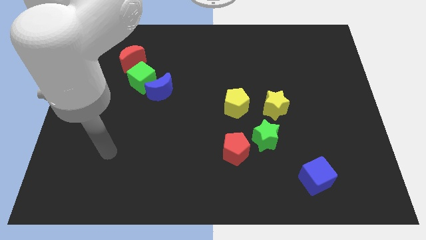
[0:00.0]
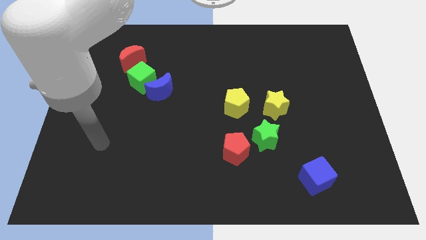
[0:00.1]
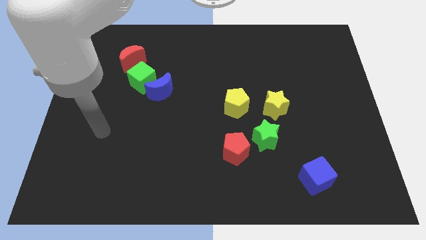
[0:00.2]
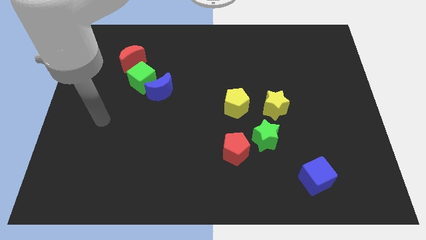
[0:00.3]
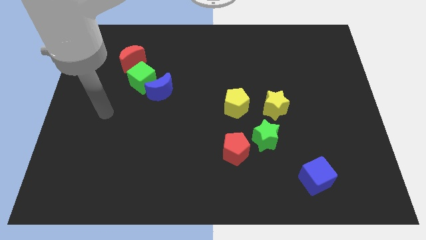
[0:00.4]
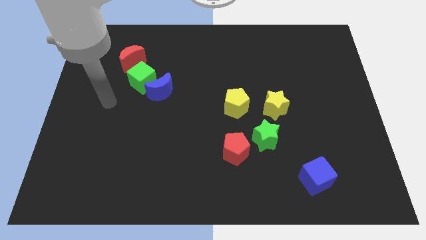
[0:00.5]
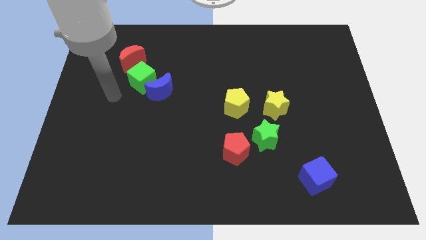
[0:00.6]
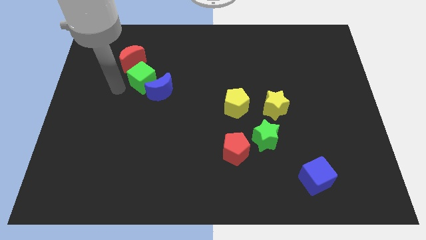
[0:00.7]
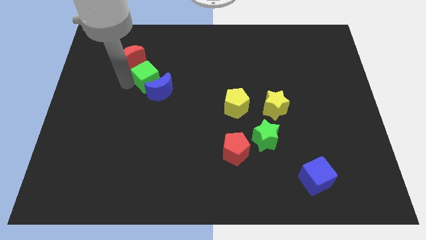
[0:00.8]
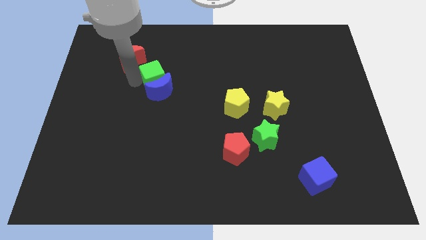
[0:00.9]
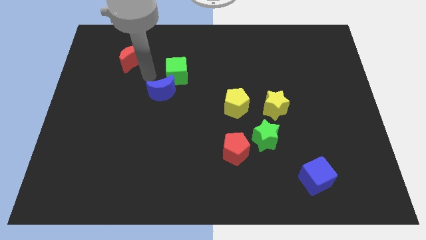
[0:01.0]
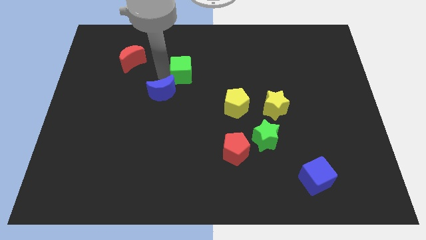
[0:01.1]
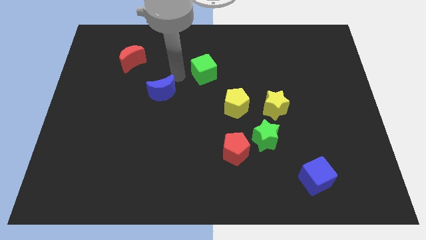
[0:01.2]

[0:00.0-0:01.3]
move the blue moon away from the green cube

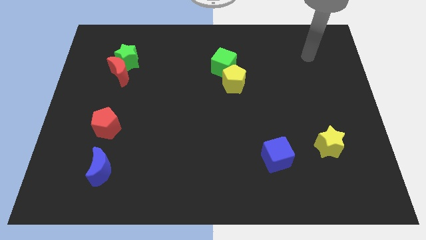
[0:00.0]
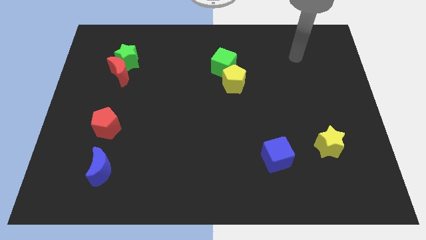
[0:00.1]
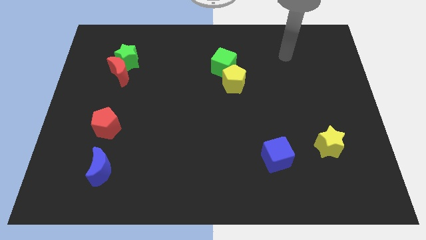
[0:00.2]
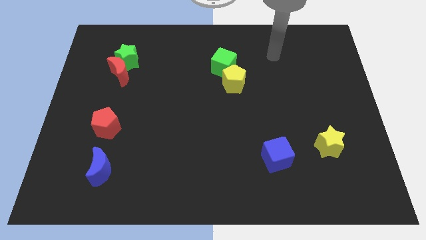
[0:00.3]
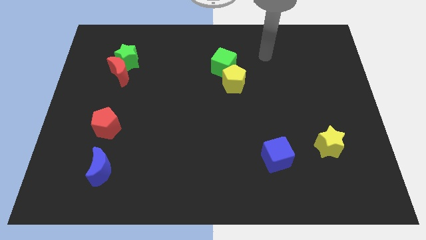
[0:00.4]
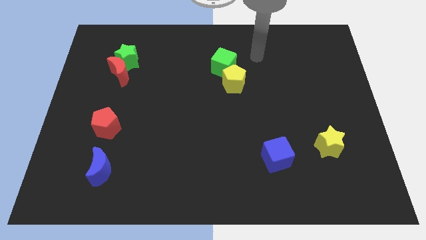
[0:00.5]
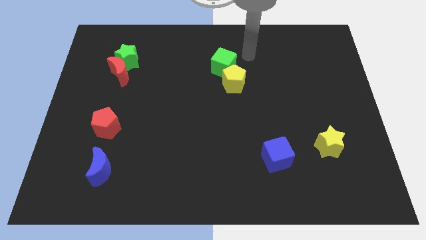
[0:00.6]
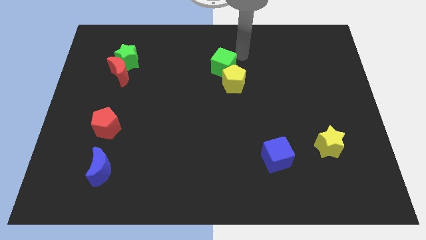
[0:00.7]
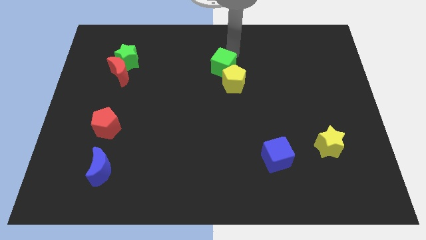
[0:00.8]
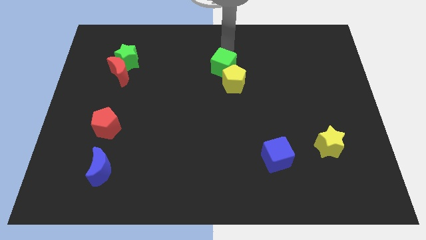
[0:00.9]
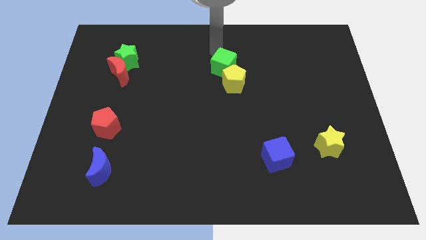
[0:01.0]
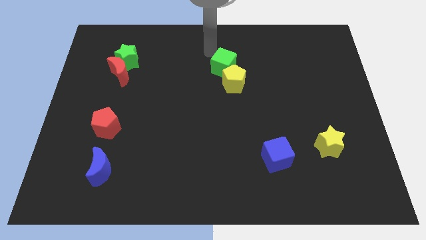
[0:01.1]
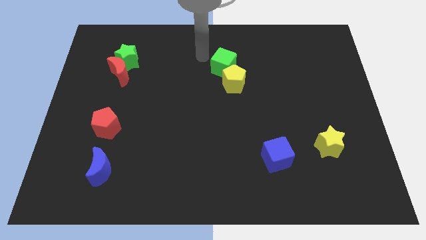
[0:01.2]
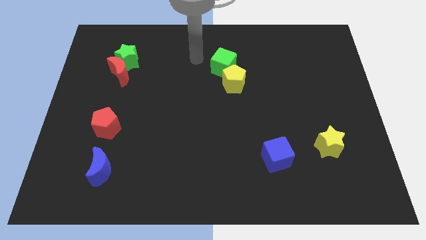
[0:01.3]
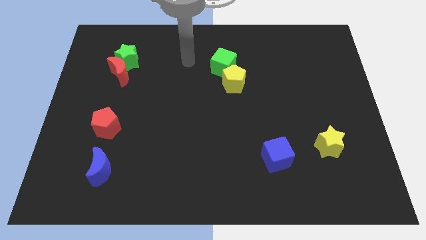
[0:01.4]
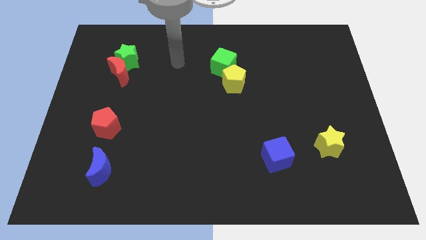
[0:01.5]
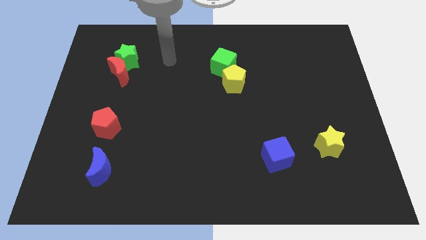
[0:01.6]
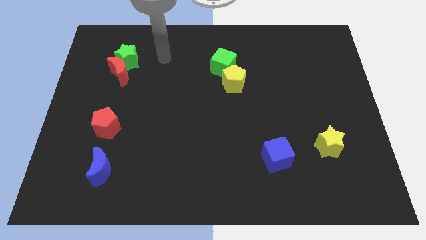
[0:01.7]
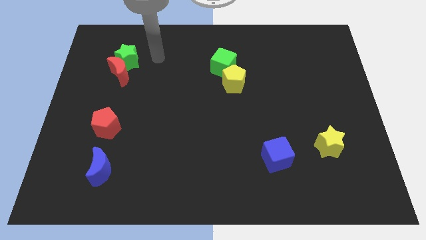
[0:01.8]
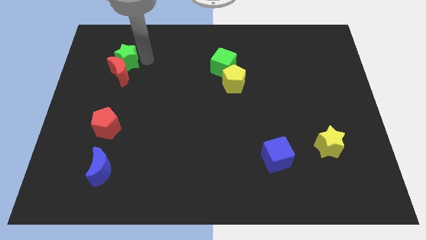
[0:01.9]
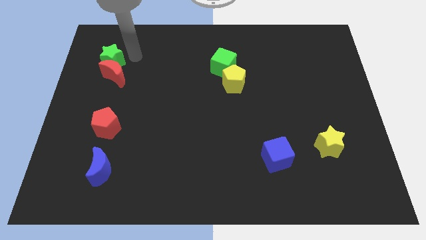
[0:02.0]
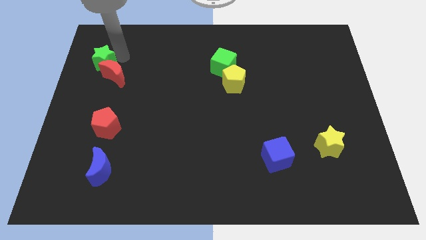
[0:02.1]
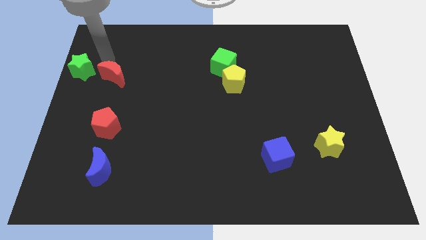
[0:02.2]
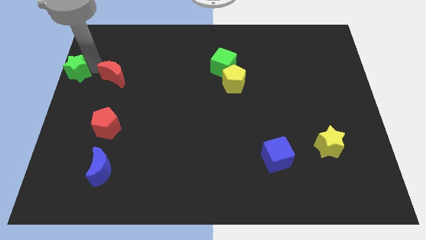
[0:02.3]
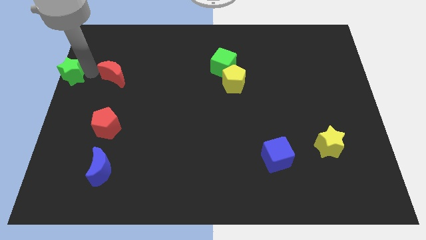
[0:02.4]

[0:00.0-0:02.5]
pull the red moon apart from the green star

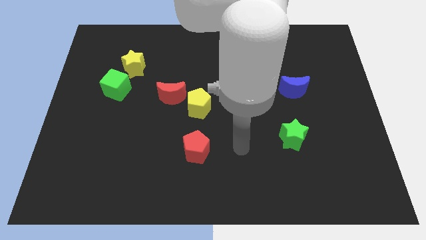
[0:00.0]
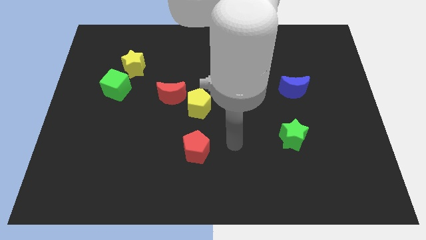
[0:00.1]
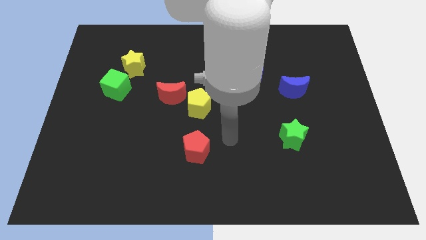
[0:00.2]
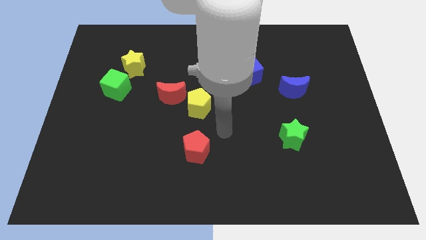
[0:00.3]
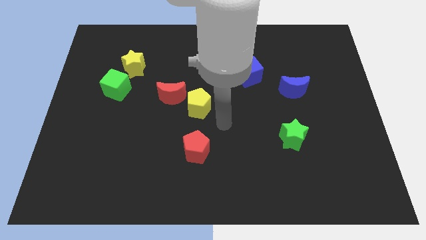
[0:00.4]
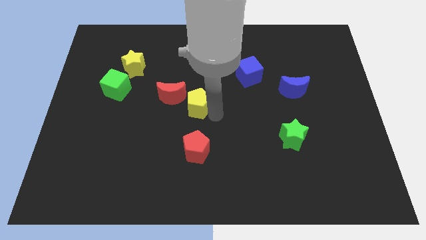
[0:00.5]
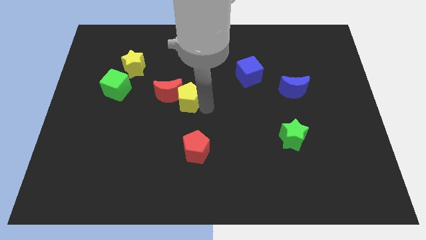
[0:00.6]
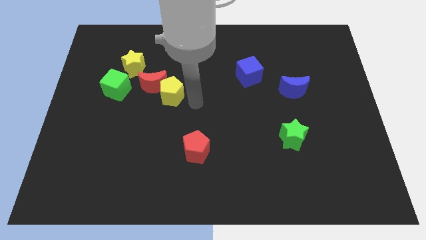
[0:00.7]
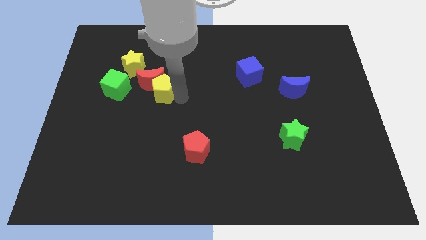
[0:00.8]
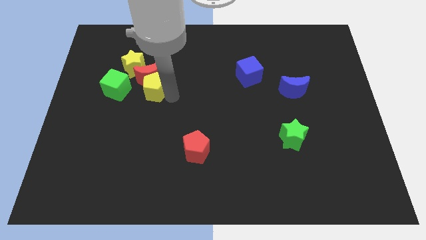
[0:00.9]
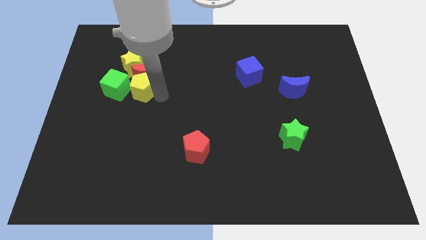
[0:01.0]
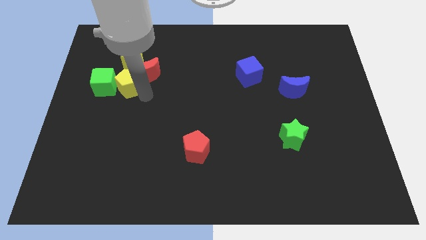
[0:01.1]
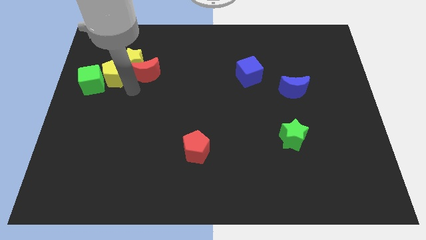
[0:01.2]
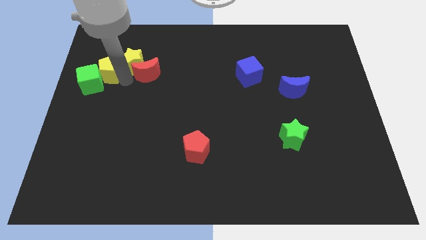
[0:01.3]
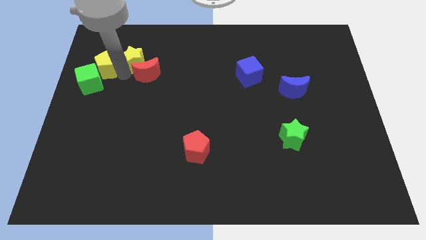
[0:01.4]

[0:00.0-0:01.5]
pull the red moon apart from the yellow pentagon

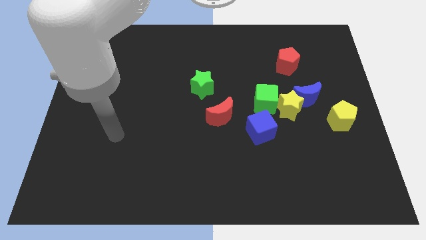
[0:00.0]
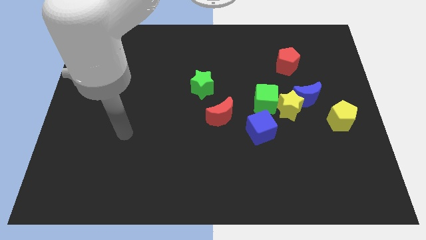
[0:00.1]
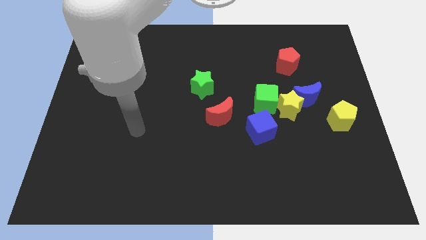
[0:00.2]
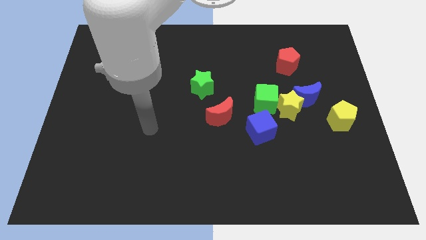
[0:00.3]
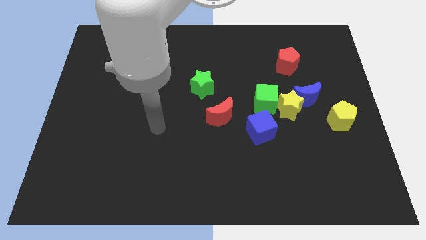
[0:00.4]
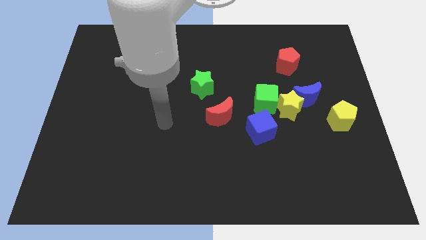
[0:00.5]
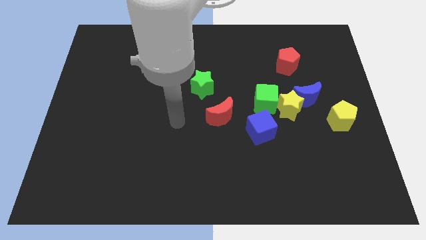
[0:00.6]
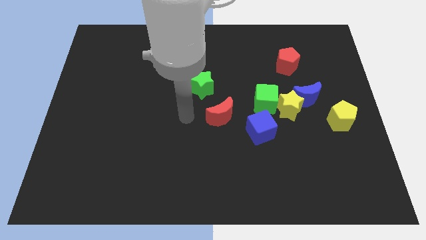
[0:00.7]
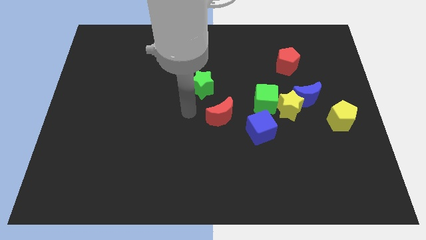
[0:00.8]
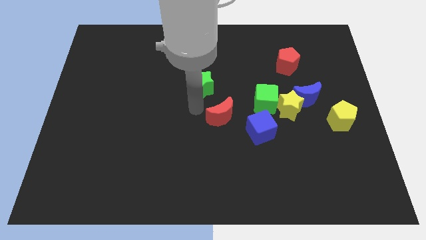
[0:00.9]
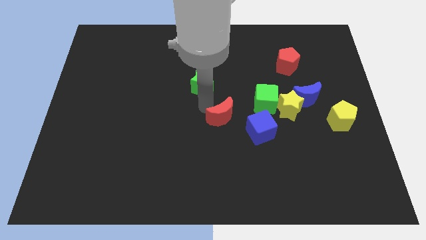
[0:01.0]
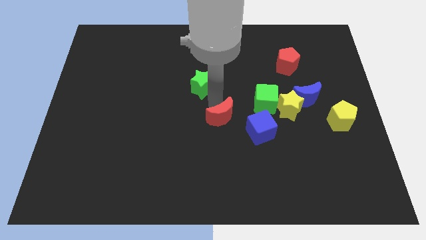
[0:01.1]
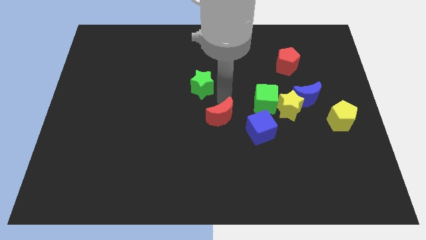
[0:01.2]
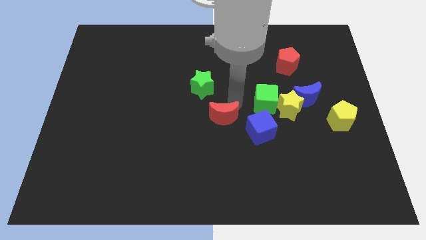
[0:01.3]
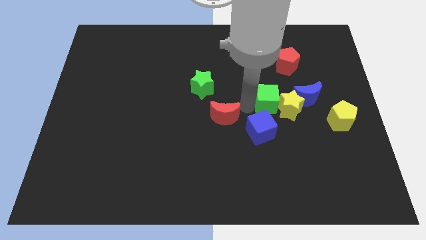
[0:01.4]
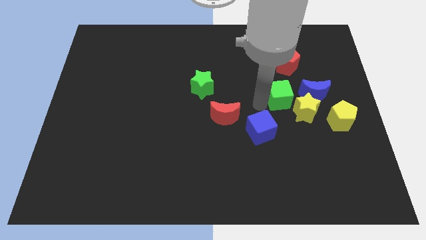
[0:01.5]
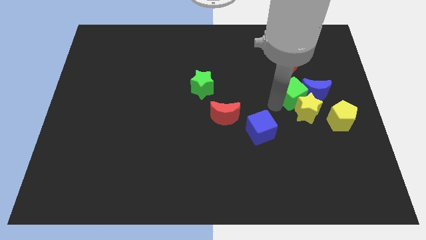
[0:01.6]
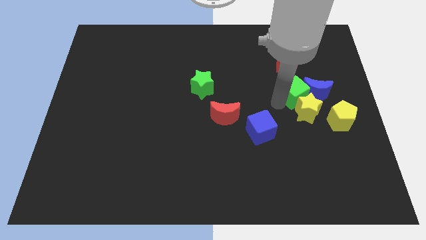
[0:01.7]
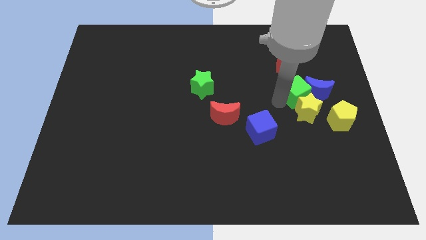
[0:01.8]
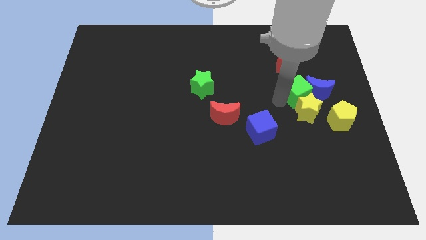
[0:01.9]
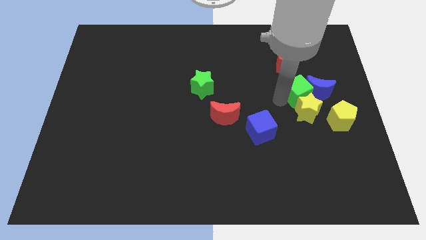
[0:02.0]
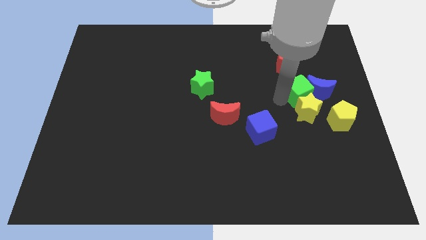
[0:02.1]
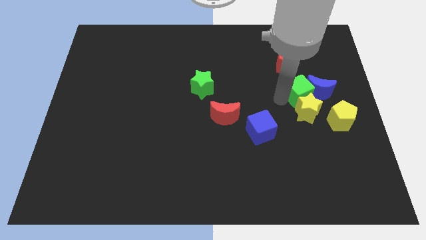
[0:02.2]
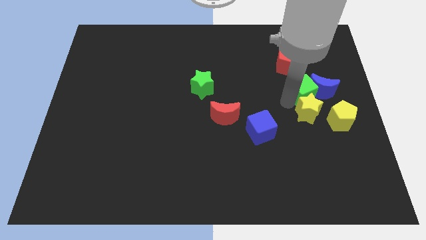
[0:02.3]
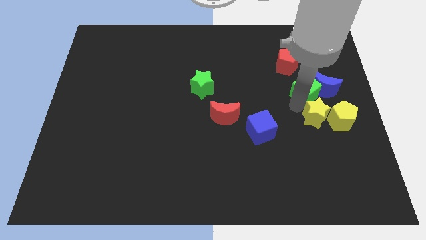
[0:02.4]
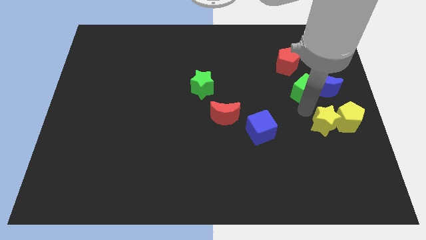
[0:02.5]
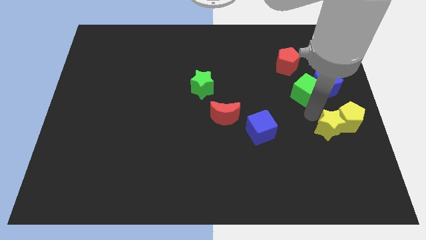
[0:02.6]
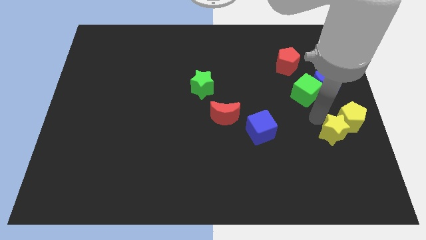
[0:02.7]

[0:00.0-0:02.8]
pull the yellow star apart from the group of blocks

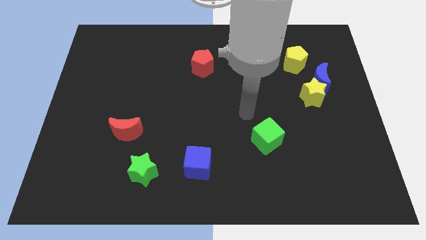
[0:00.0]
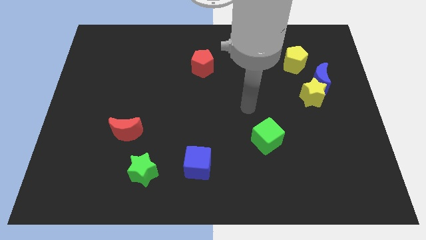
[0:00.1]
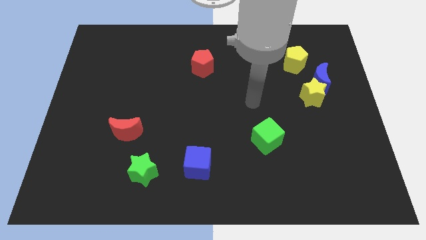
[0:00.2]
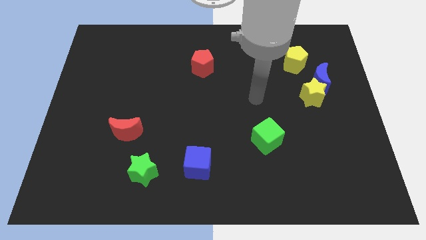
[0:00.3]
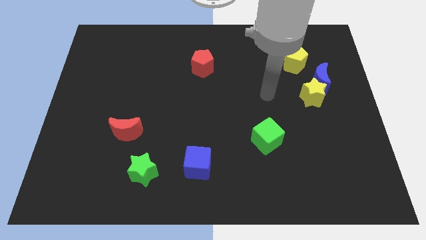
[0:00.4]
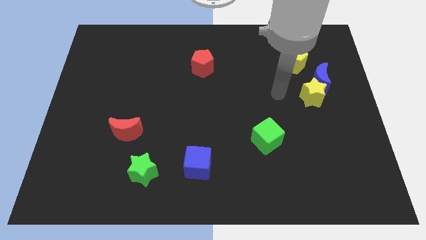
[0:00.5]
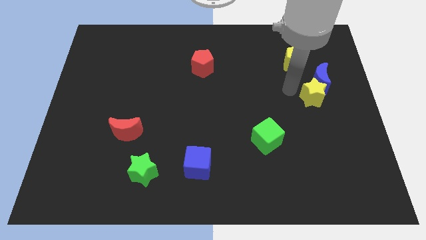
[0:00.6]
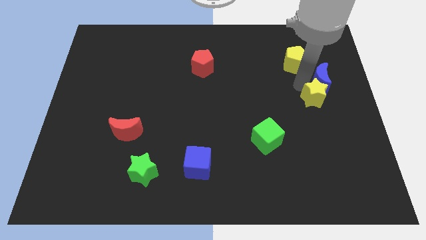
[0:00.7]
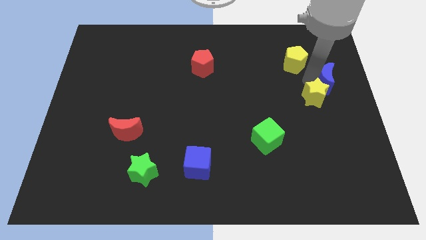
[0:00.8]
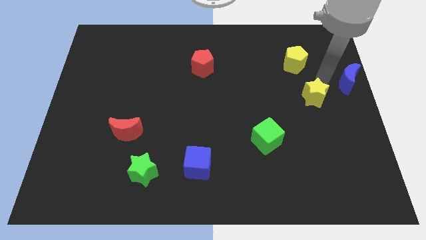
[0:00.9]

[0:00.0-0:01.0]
pull the yellow star apart from the blue moon

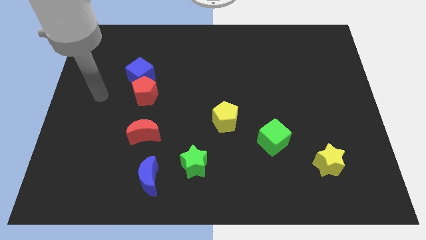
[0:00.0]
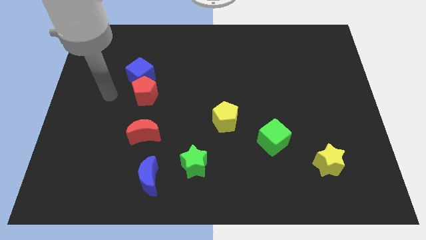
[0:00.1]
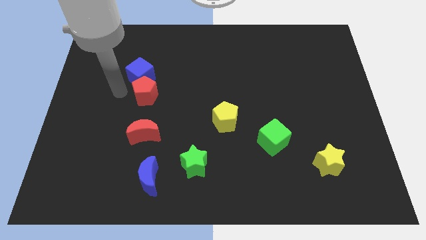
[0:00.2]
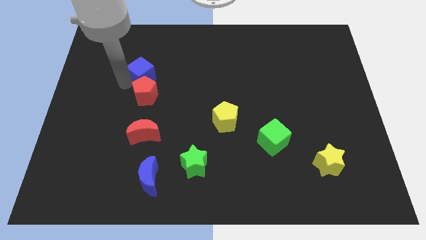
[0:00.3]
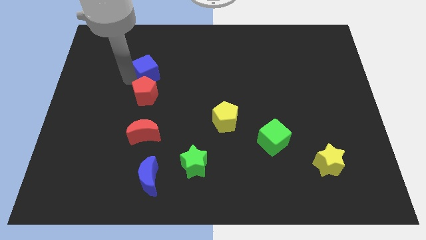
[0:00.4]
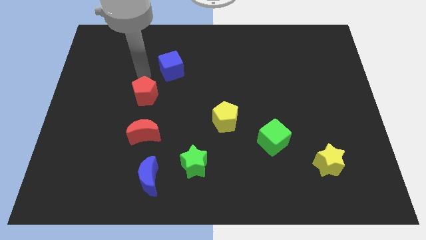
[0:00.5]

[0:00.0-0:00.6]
move the red pentagon away from the blue cube
